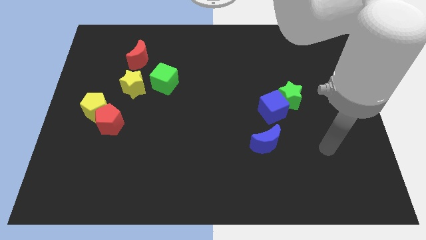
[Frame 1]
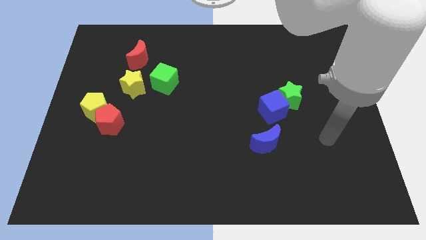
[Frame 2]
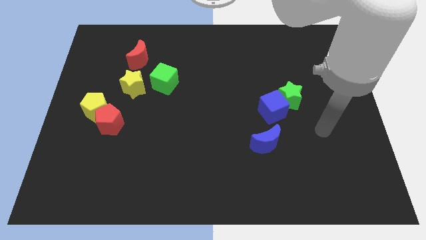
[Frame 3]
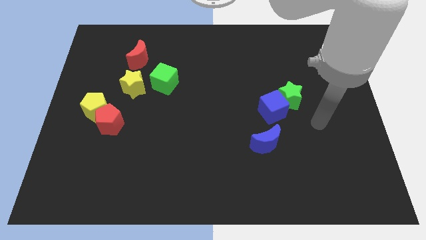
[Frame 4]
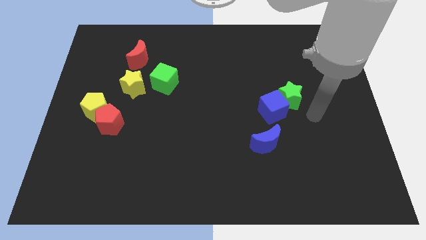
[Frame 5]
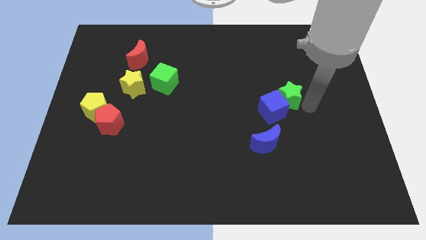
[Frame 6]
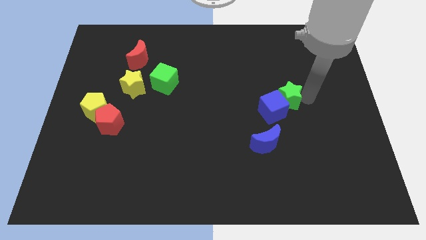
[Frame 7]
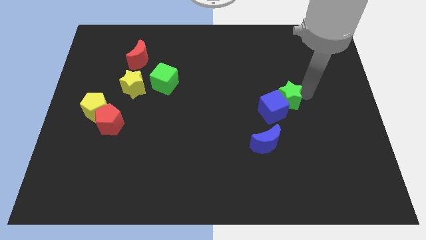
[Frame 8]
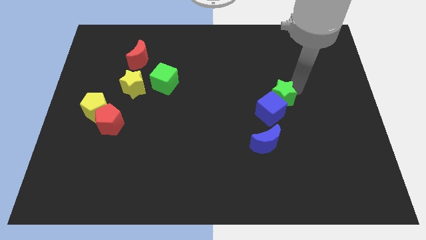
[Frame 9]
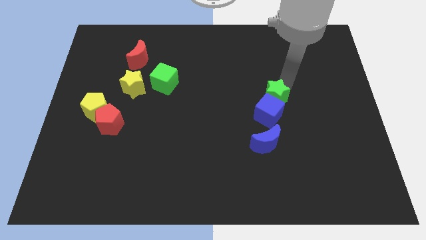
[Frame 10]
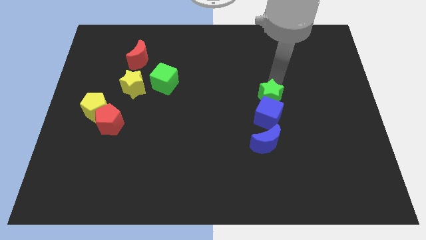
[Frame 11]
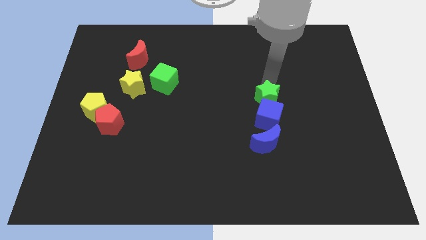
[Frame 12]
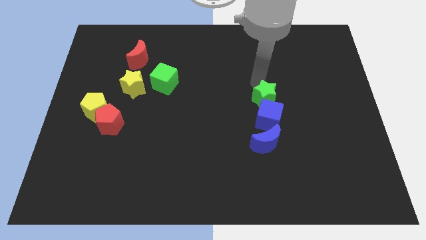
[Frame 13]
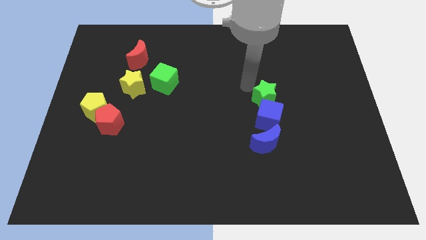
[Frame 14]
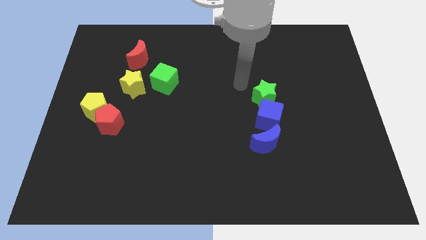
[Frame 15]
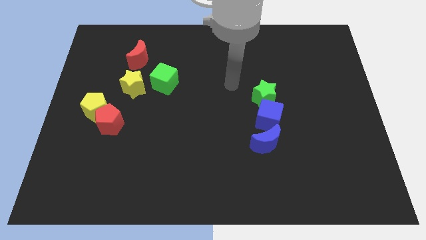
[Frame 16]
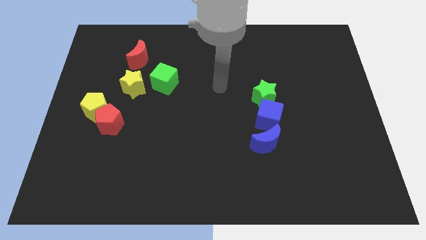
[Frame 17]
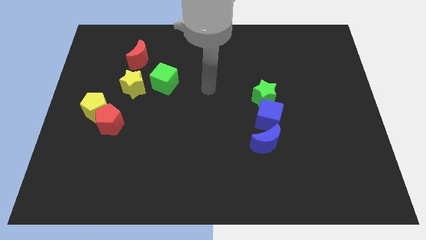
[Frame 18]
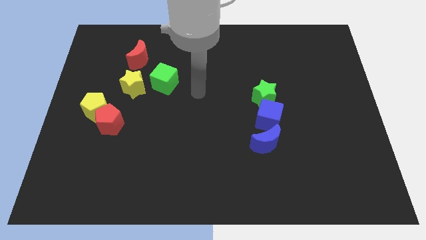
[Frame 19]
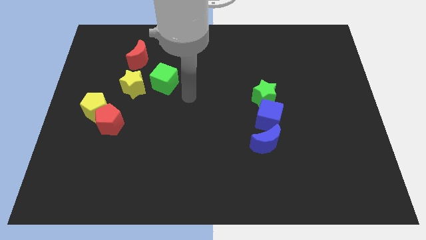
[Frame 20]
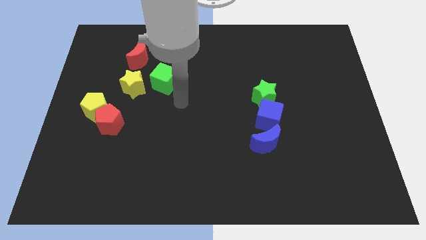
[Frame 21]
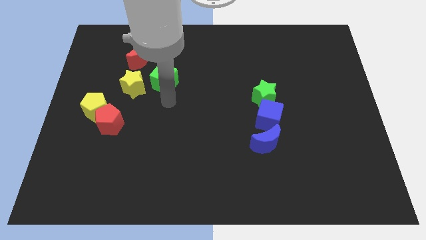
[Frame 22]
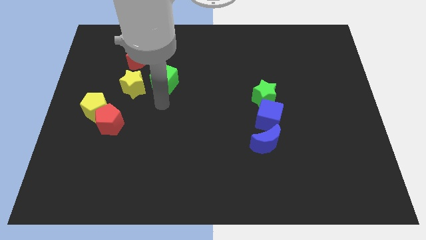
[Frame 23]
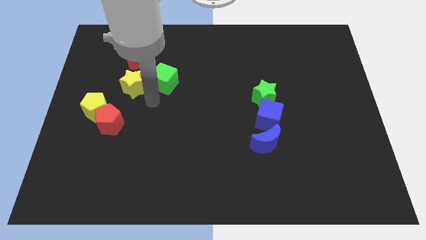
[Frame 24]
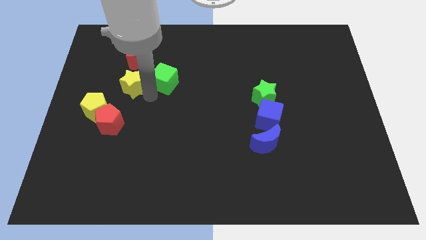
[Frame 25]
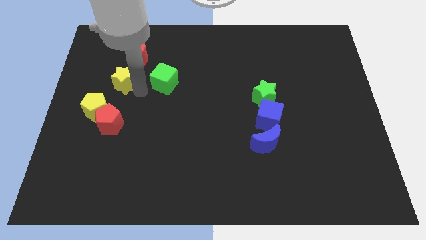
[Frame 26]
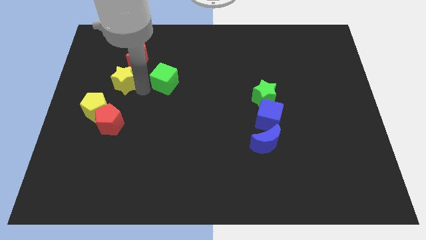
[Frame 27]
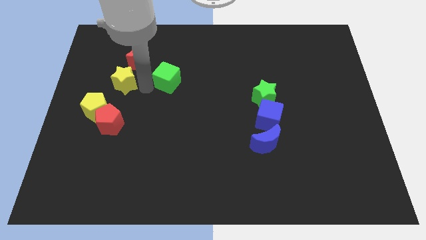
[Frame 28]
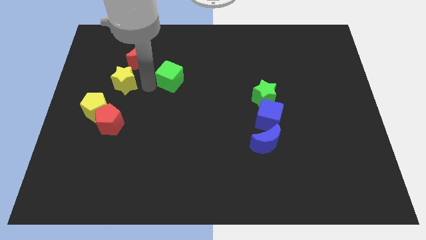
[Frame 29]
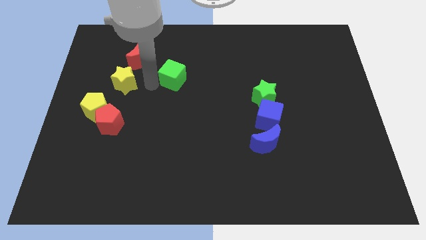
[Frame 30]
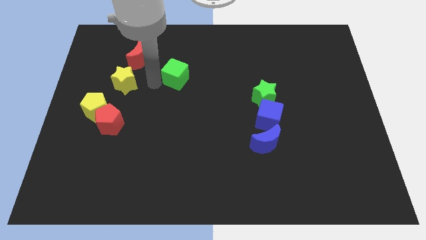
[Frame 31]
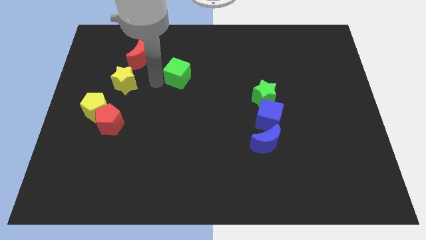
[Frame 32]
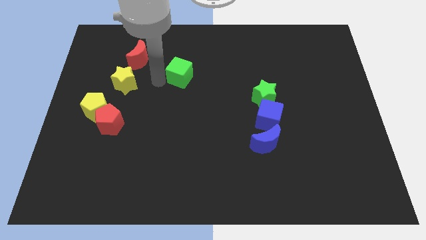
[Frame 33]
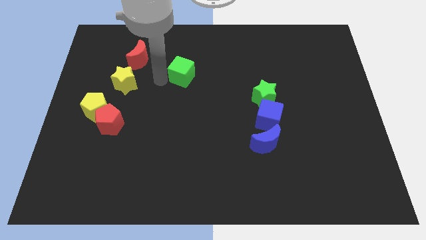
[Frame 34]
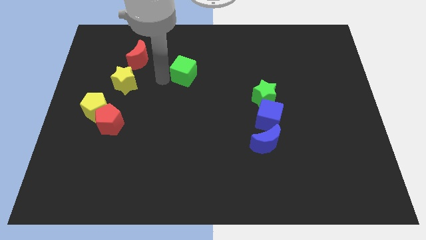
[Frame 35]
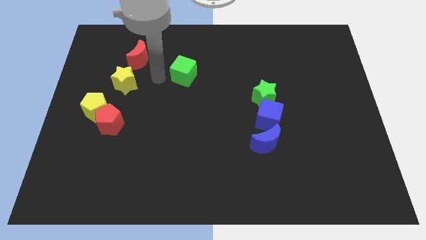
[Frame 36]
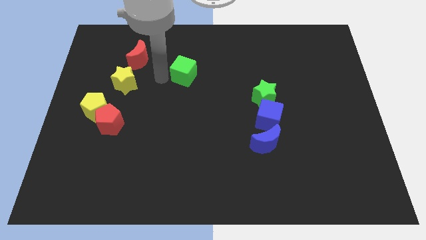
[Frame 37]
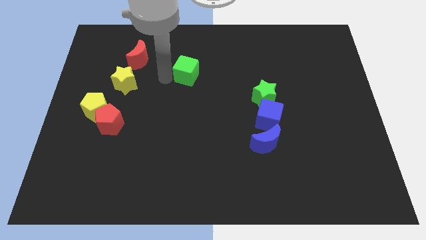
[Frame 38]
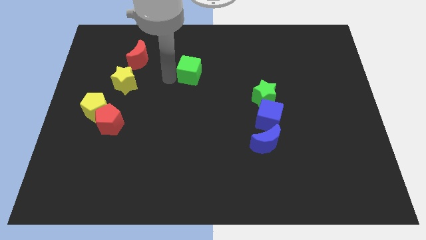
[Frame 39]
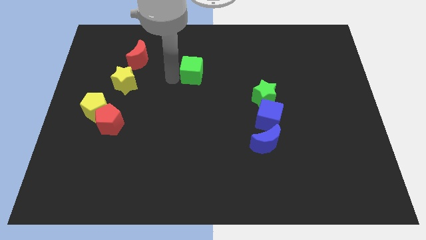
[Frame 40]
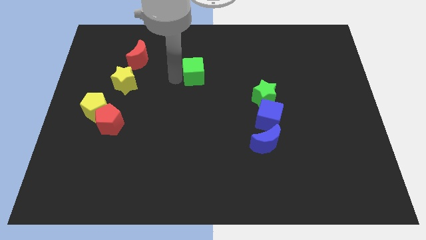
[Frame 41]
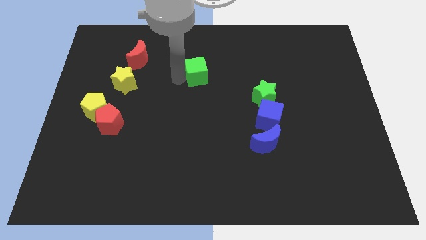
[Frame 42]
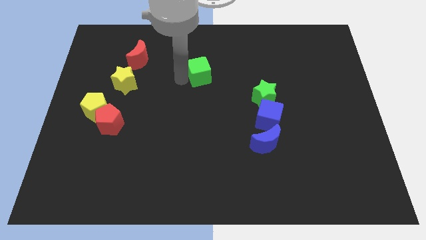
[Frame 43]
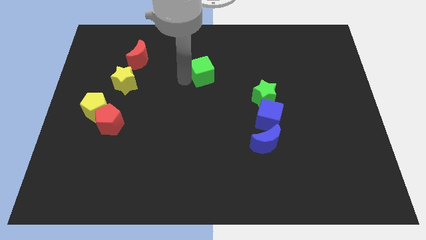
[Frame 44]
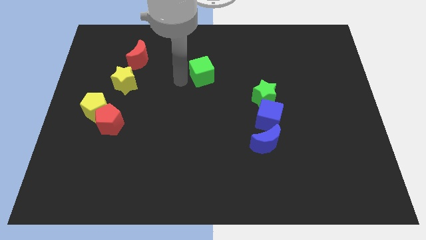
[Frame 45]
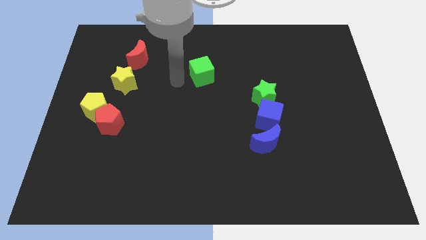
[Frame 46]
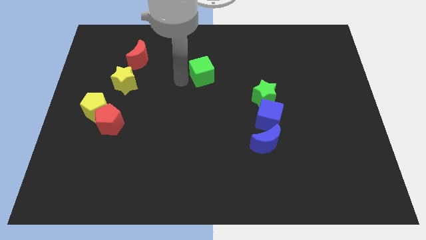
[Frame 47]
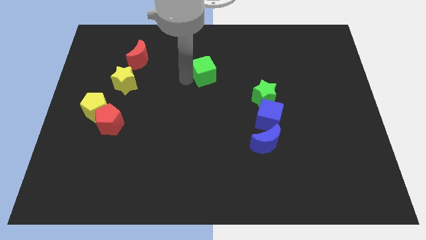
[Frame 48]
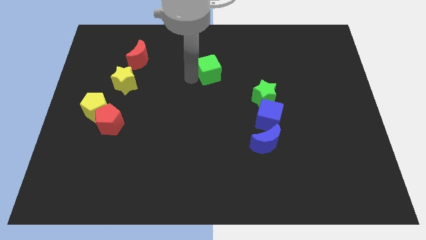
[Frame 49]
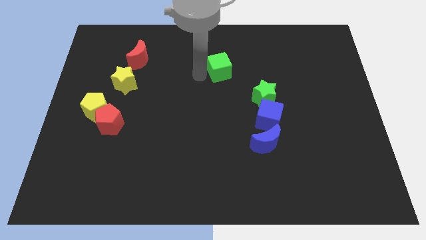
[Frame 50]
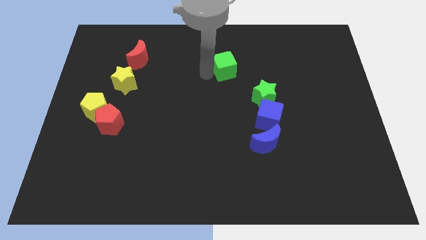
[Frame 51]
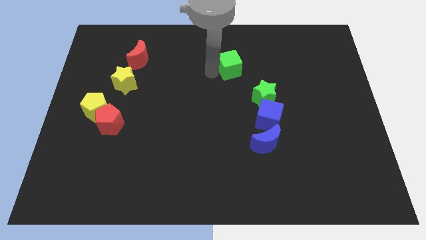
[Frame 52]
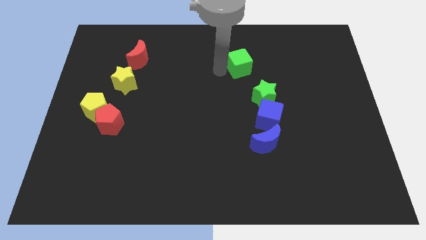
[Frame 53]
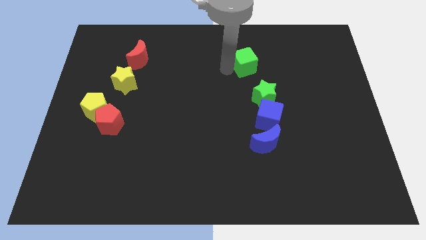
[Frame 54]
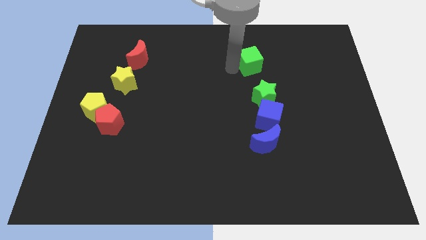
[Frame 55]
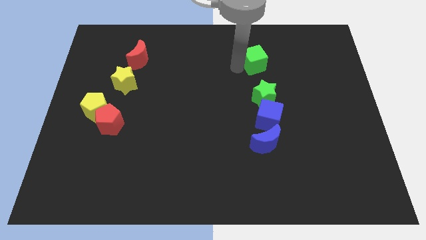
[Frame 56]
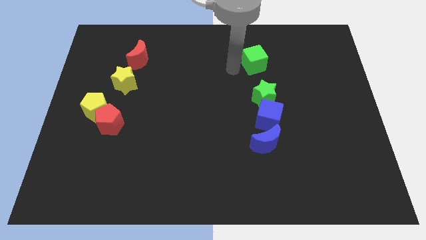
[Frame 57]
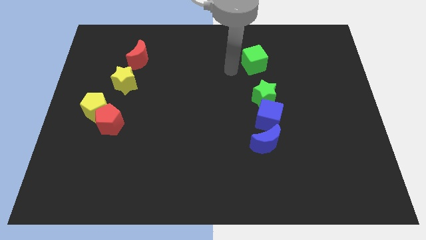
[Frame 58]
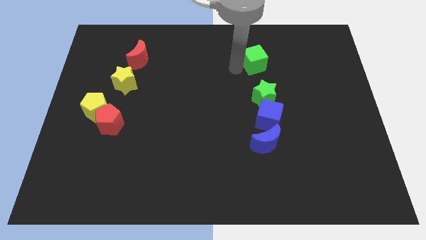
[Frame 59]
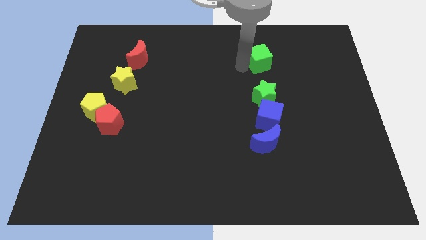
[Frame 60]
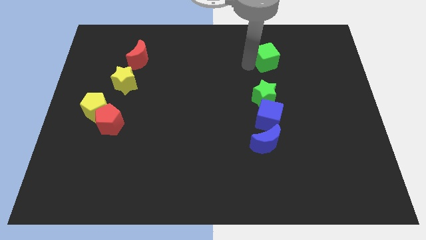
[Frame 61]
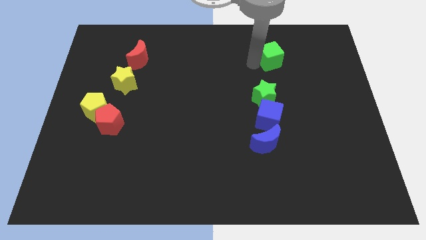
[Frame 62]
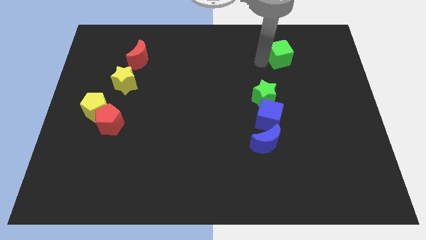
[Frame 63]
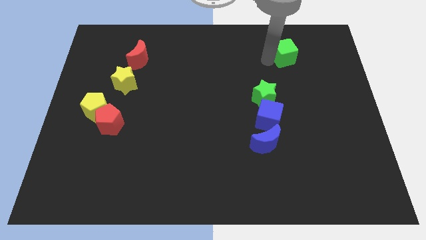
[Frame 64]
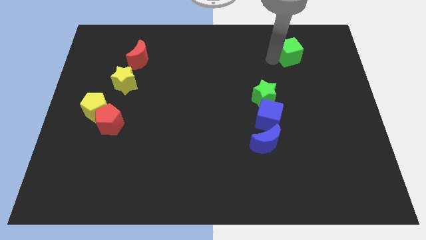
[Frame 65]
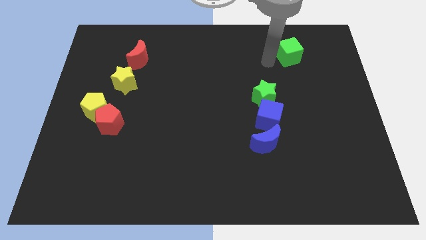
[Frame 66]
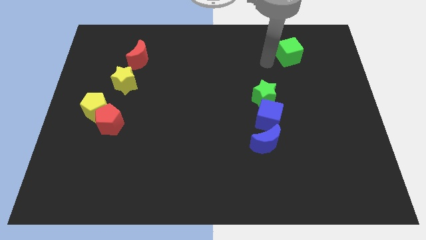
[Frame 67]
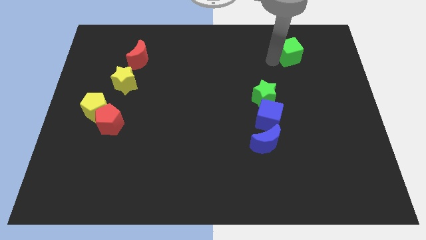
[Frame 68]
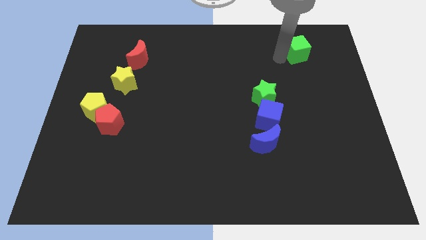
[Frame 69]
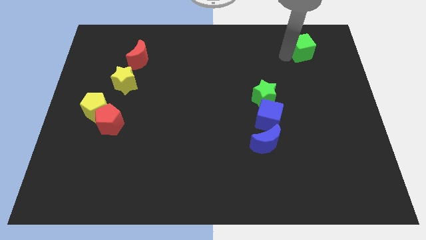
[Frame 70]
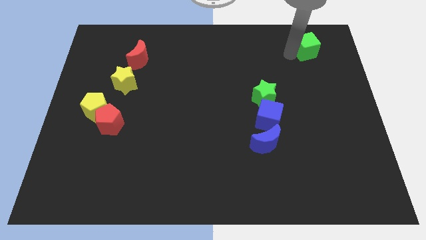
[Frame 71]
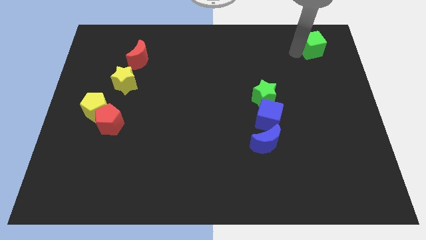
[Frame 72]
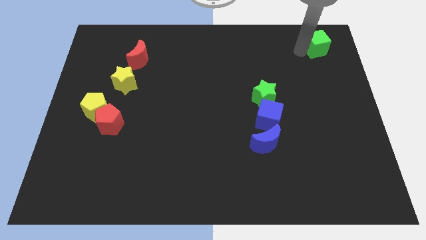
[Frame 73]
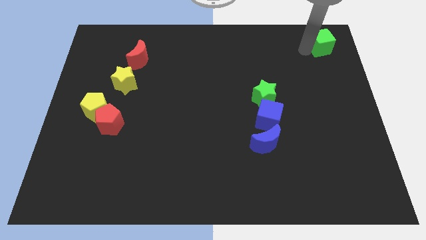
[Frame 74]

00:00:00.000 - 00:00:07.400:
push the green cube to the top right
